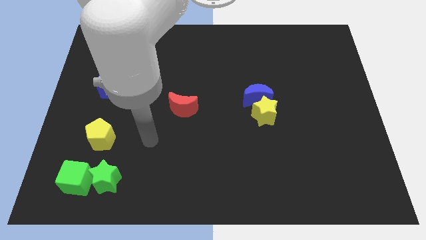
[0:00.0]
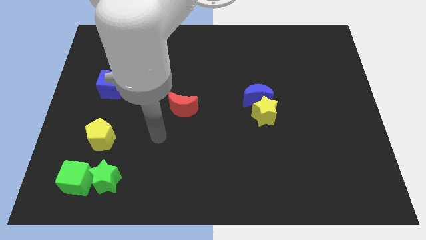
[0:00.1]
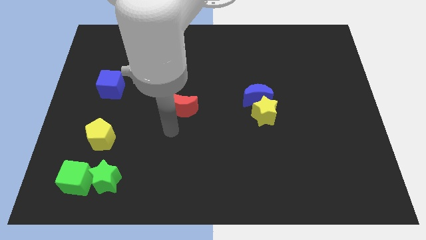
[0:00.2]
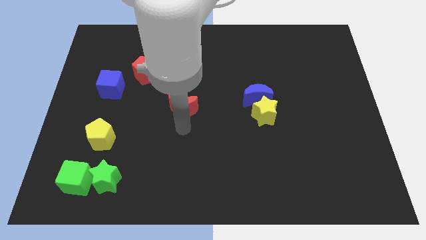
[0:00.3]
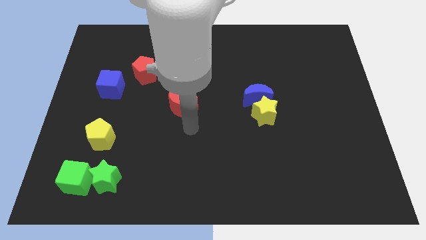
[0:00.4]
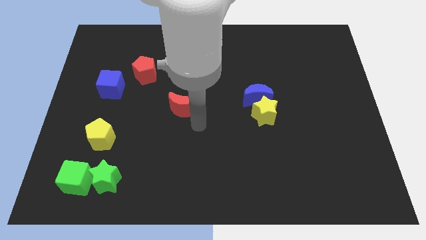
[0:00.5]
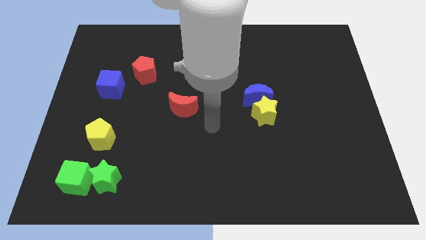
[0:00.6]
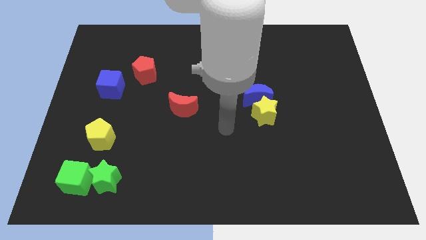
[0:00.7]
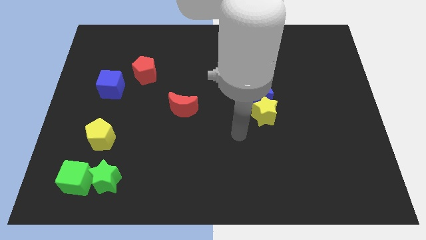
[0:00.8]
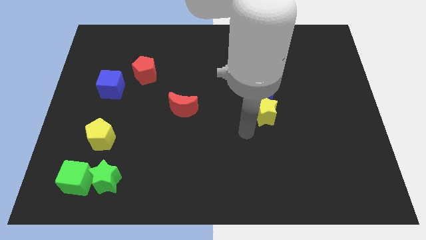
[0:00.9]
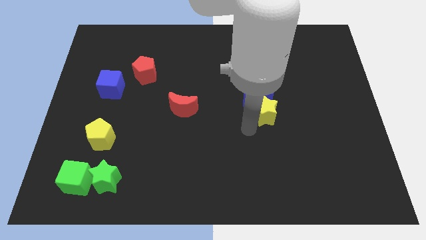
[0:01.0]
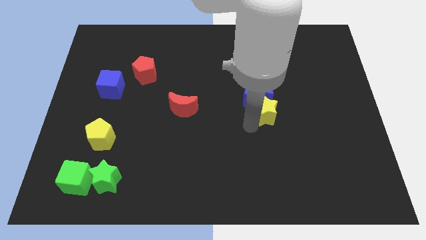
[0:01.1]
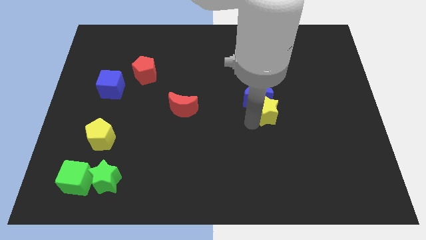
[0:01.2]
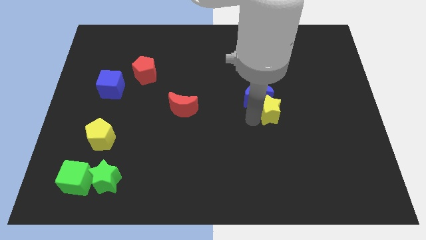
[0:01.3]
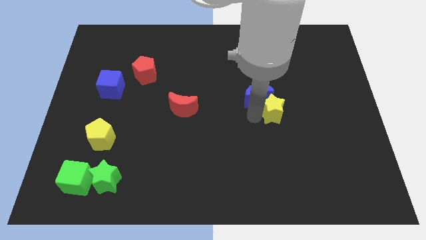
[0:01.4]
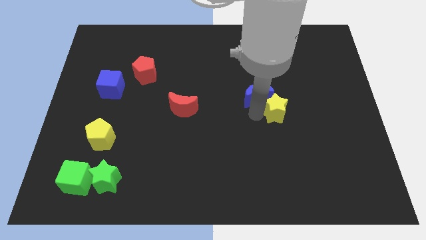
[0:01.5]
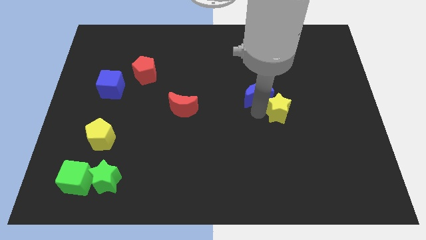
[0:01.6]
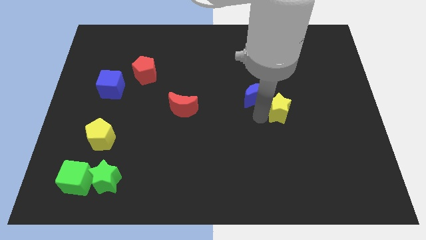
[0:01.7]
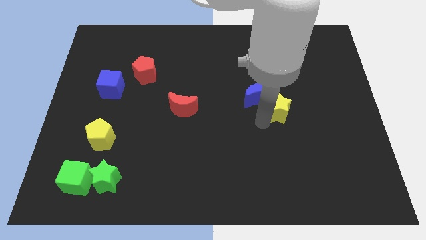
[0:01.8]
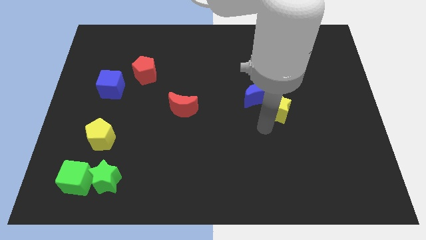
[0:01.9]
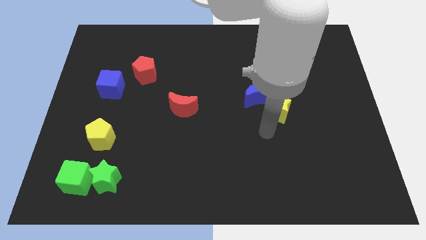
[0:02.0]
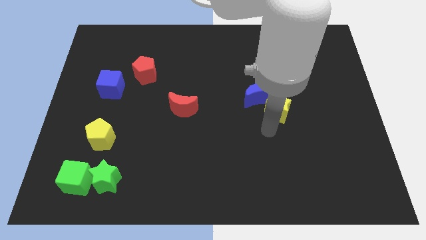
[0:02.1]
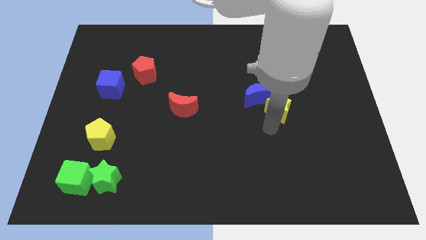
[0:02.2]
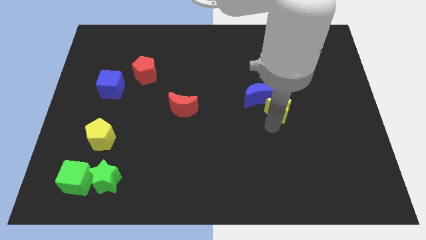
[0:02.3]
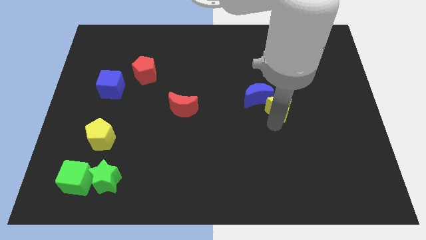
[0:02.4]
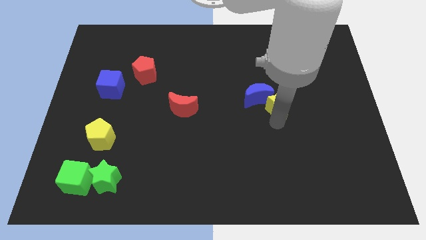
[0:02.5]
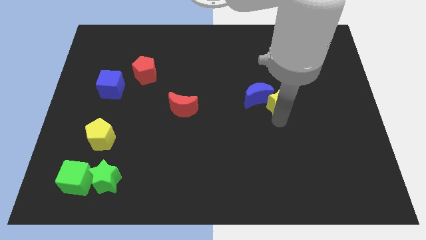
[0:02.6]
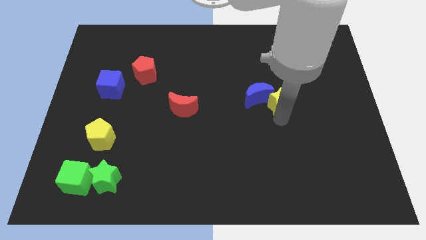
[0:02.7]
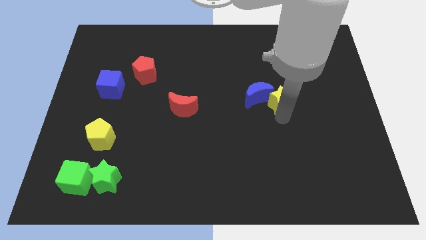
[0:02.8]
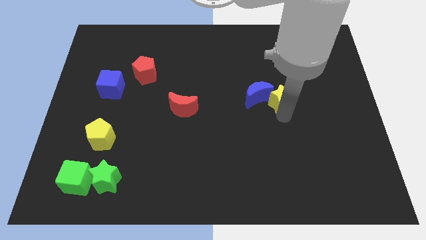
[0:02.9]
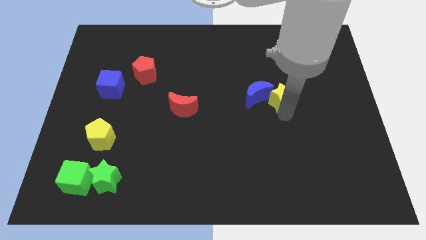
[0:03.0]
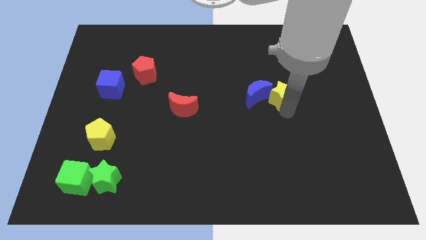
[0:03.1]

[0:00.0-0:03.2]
slightly slide the yellow star up and right

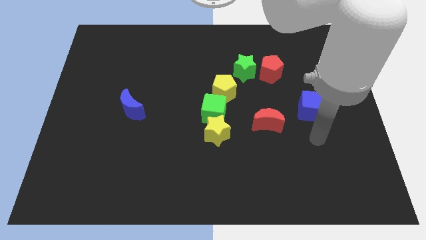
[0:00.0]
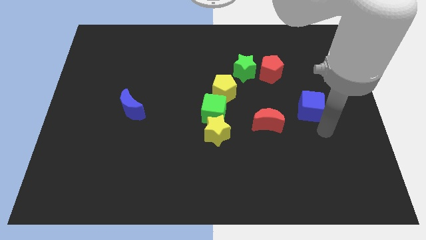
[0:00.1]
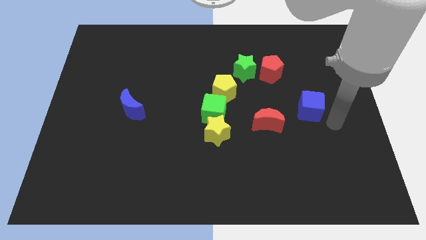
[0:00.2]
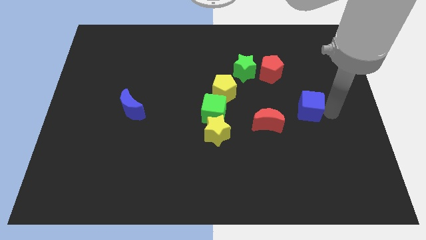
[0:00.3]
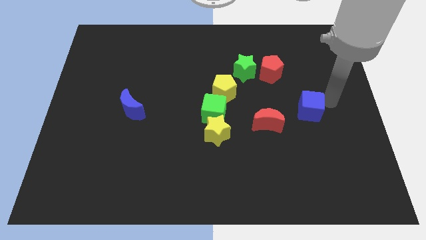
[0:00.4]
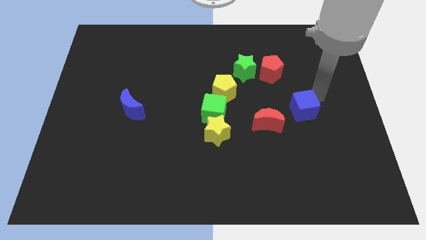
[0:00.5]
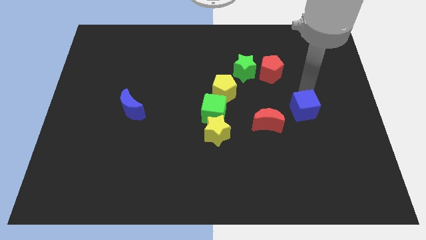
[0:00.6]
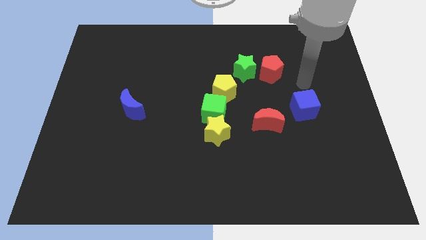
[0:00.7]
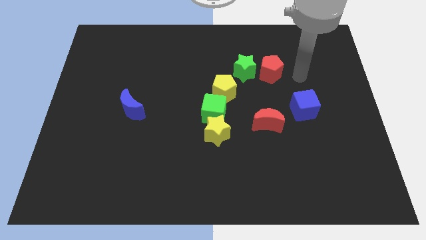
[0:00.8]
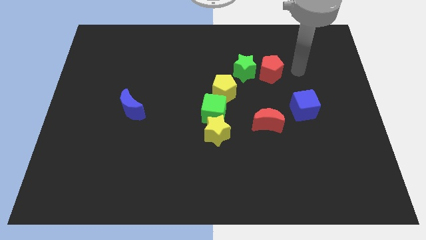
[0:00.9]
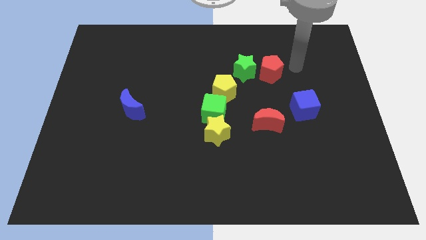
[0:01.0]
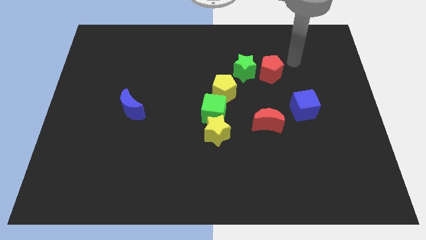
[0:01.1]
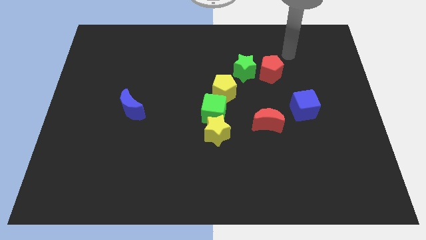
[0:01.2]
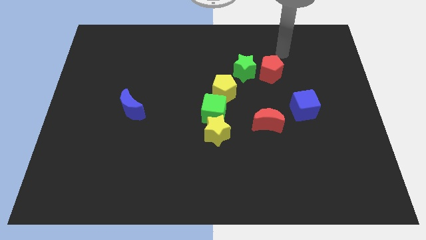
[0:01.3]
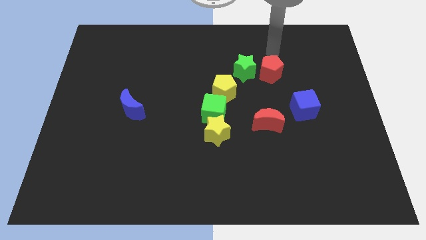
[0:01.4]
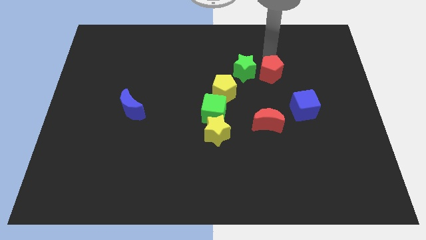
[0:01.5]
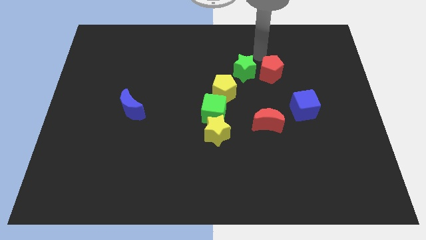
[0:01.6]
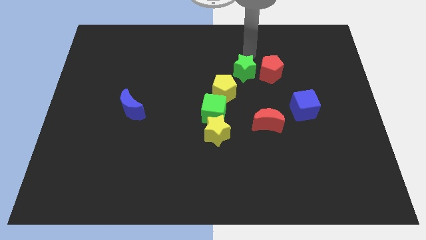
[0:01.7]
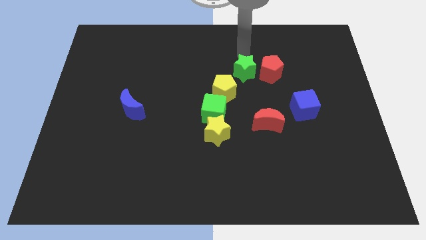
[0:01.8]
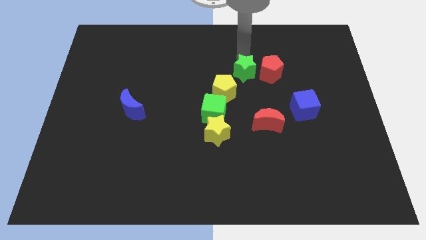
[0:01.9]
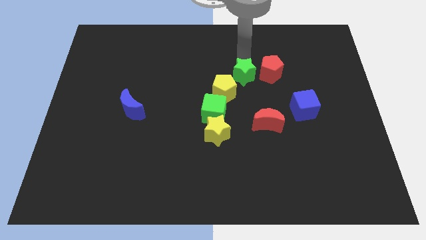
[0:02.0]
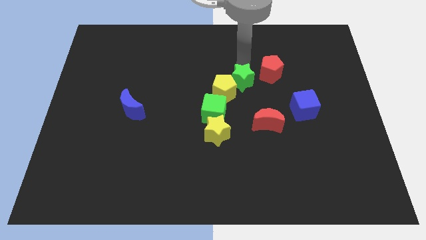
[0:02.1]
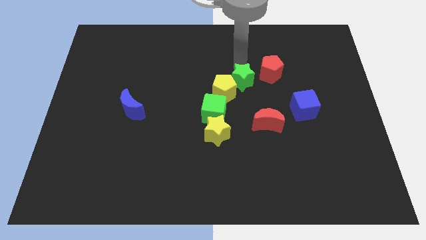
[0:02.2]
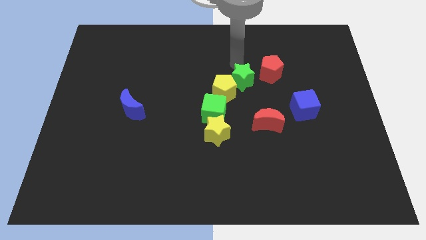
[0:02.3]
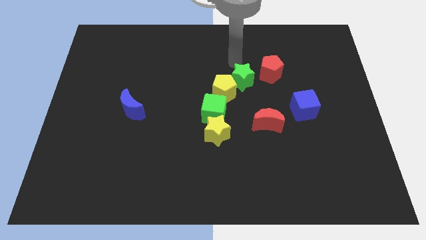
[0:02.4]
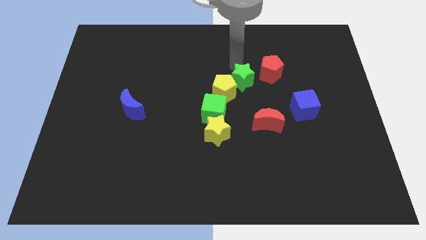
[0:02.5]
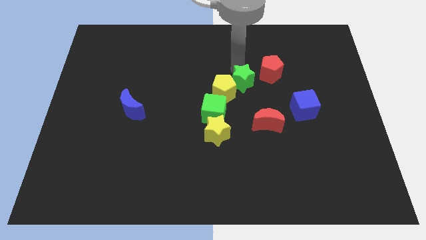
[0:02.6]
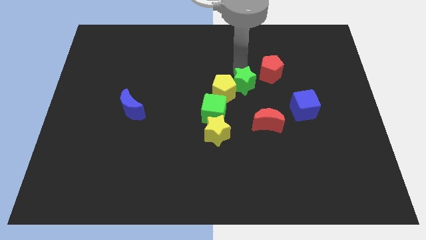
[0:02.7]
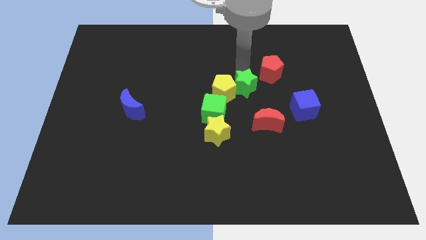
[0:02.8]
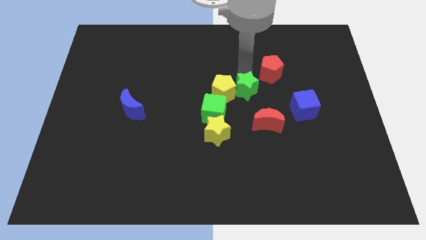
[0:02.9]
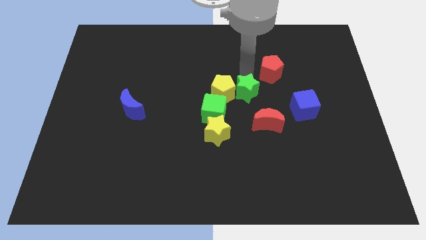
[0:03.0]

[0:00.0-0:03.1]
slide the green star a little down

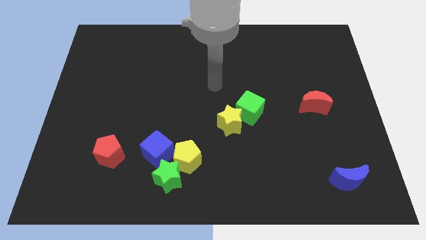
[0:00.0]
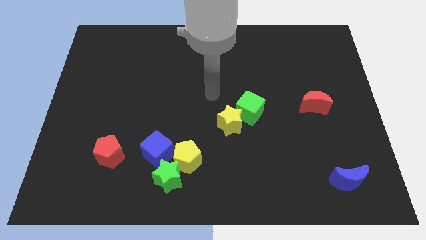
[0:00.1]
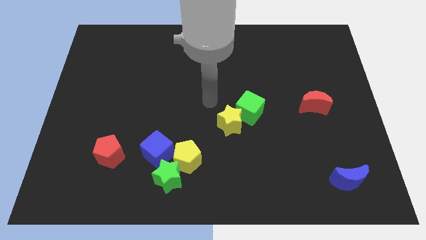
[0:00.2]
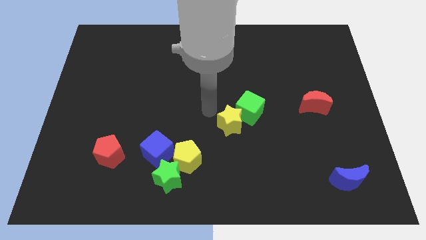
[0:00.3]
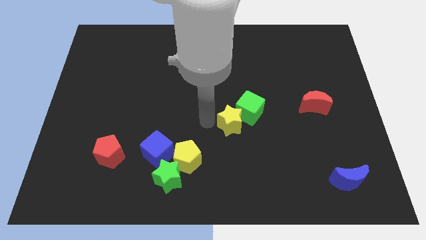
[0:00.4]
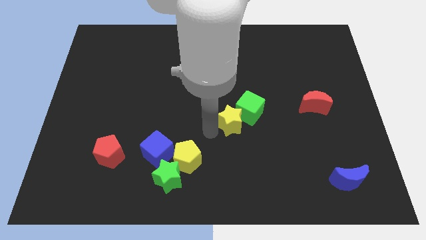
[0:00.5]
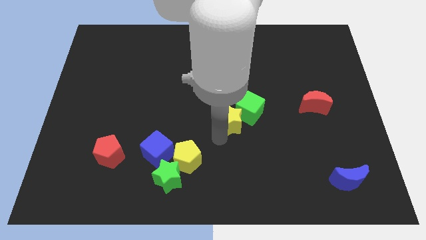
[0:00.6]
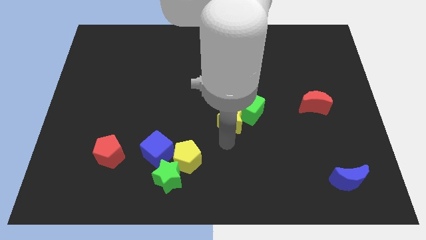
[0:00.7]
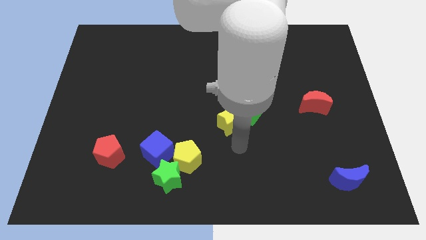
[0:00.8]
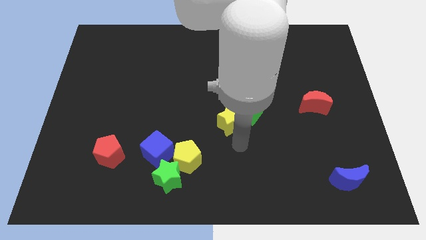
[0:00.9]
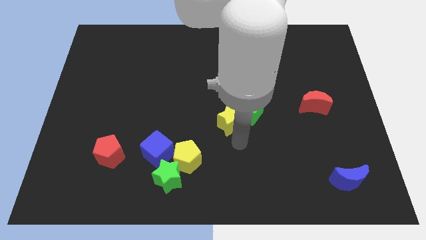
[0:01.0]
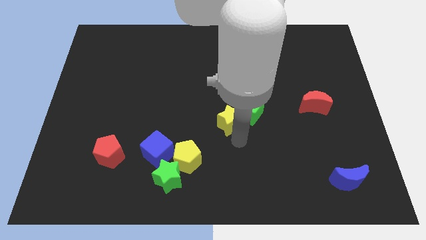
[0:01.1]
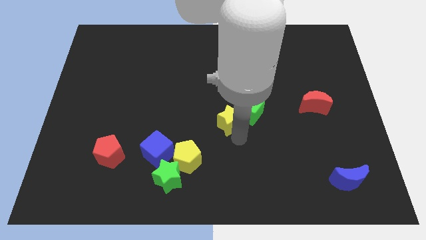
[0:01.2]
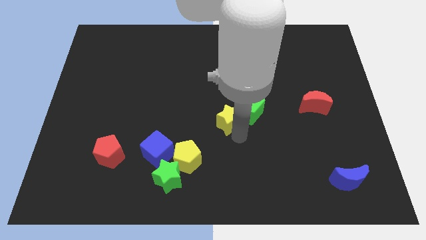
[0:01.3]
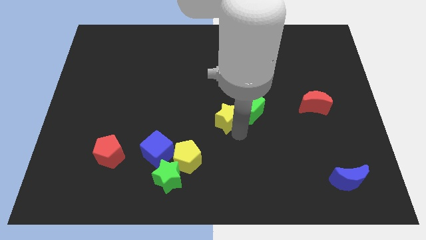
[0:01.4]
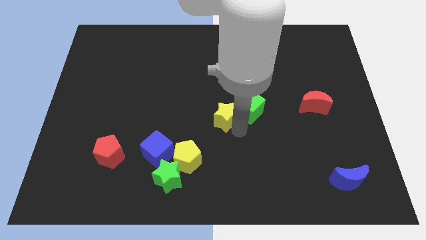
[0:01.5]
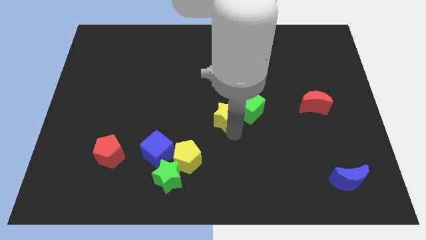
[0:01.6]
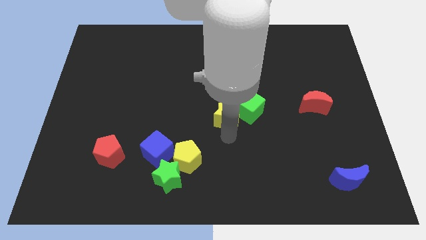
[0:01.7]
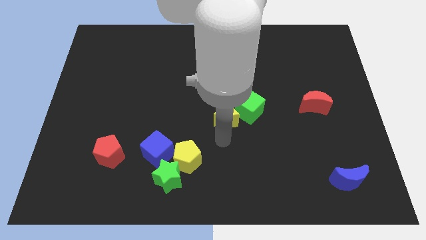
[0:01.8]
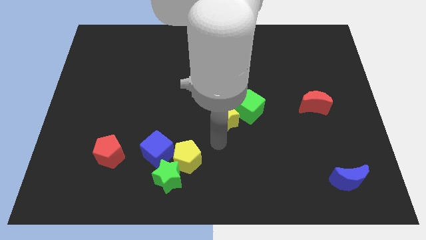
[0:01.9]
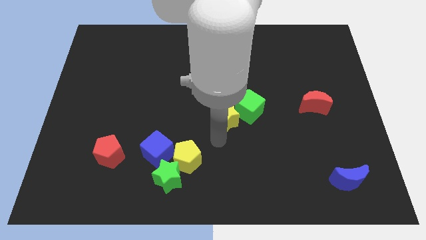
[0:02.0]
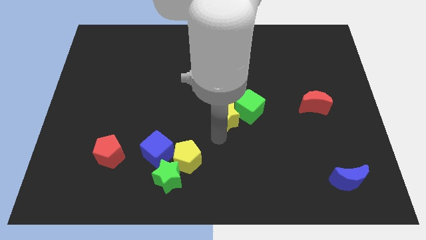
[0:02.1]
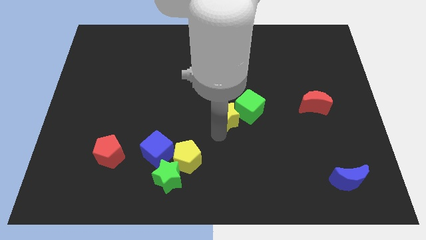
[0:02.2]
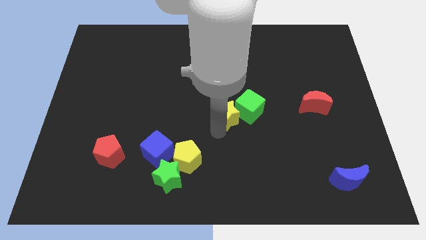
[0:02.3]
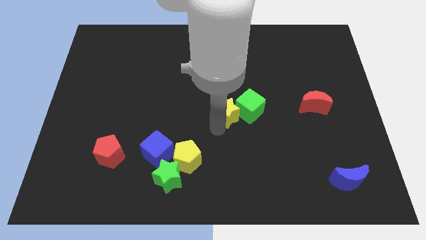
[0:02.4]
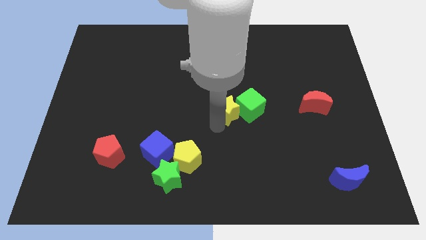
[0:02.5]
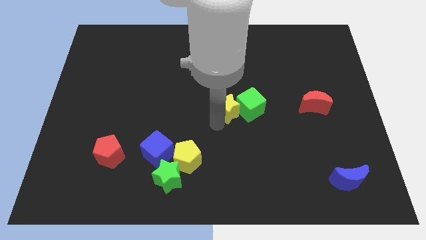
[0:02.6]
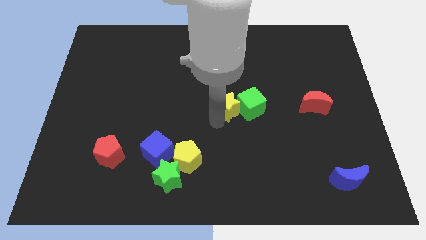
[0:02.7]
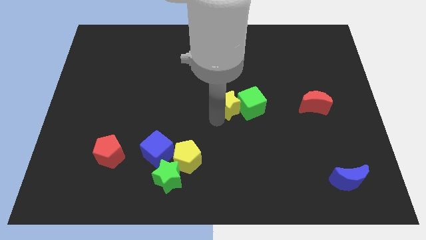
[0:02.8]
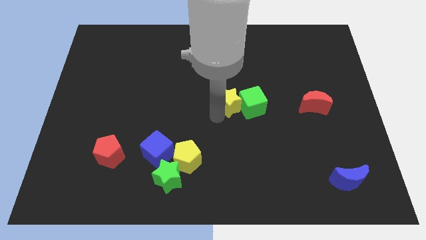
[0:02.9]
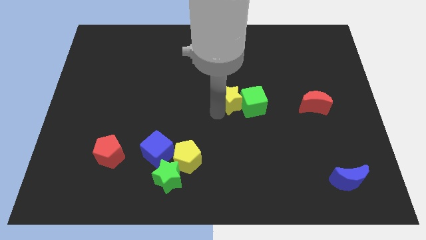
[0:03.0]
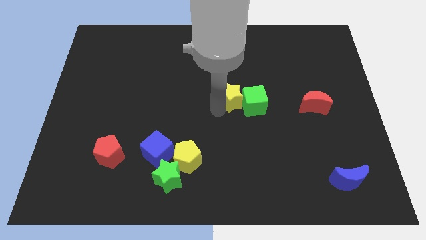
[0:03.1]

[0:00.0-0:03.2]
slightly push the yellow star up
